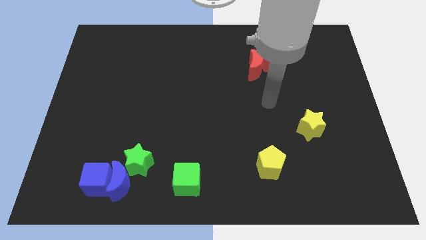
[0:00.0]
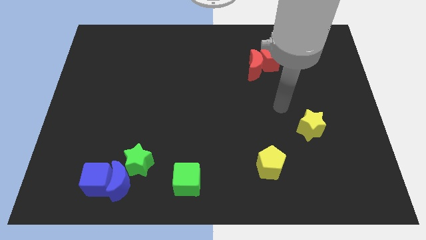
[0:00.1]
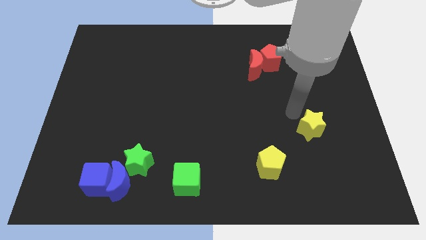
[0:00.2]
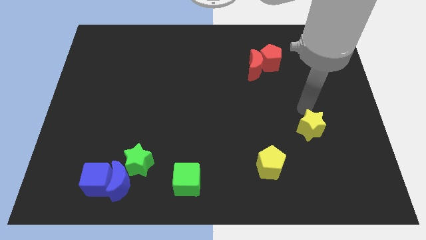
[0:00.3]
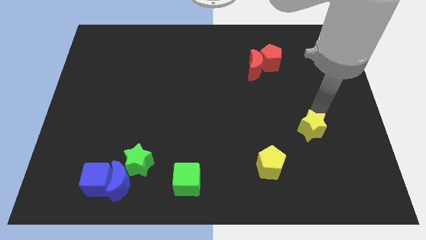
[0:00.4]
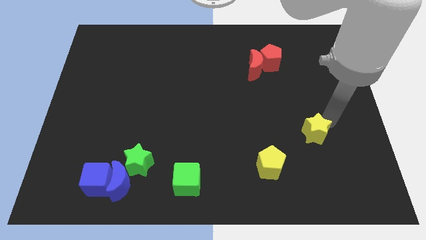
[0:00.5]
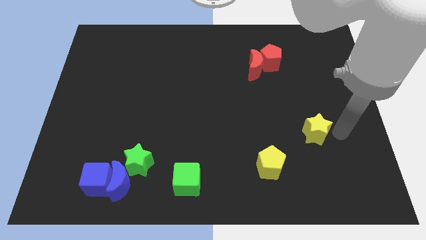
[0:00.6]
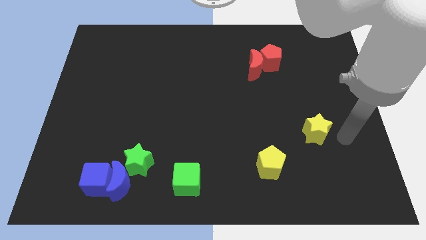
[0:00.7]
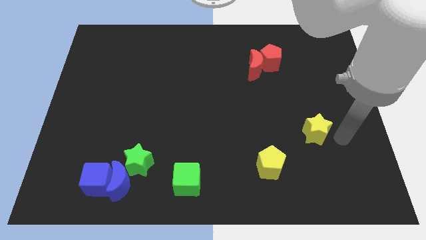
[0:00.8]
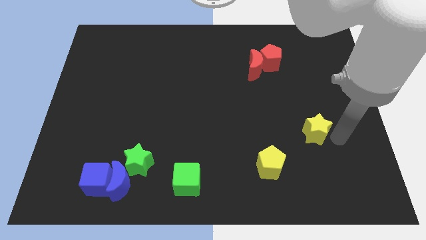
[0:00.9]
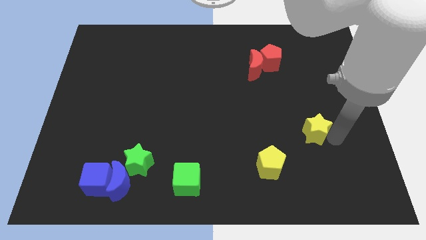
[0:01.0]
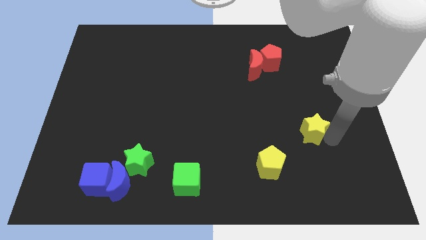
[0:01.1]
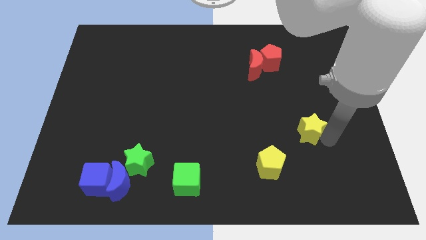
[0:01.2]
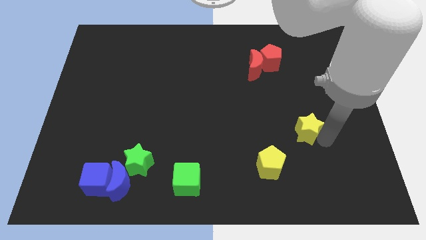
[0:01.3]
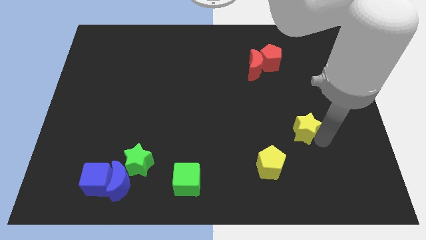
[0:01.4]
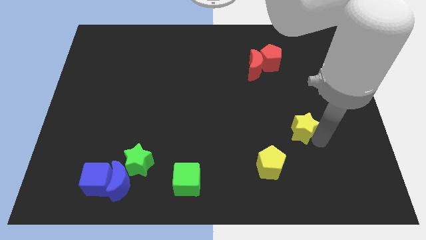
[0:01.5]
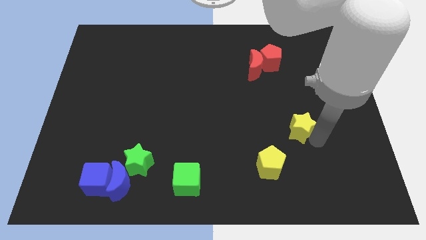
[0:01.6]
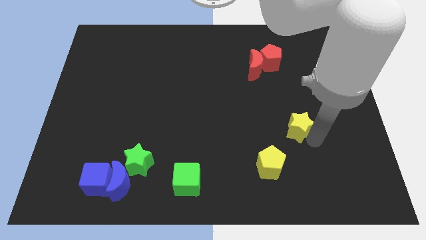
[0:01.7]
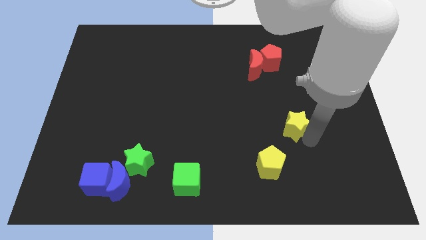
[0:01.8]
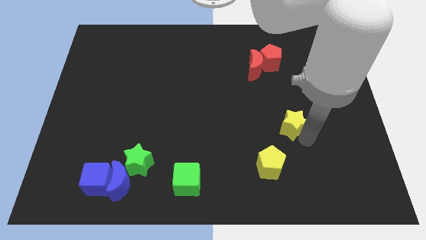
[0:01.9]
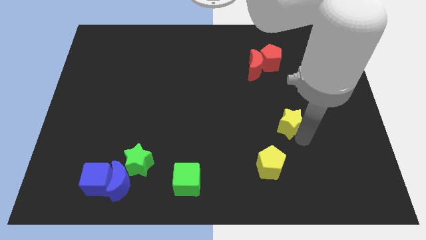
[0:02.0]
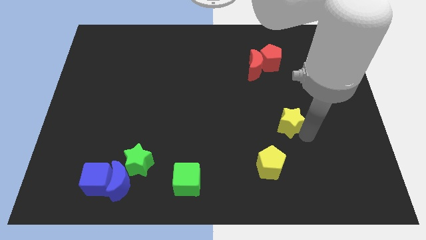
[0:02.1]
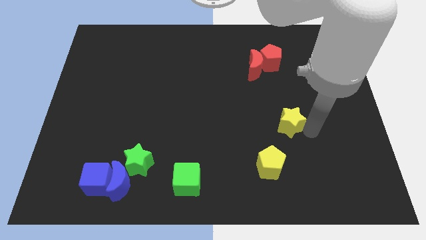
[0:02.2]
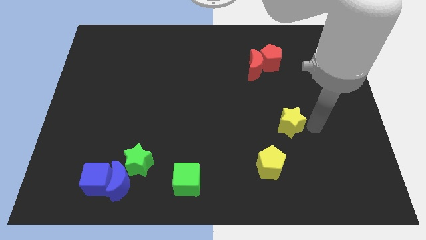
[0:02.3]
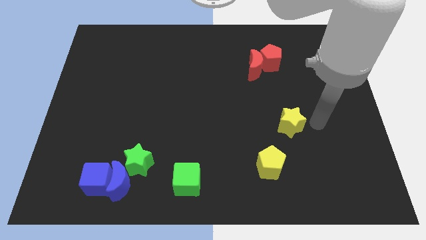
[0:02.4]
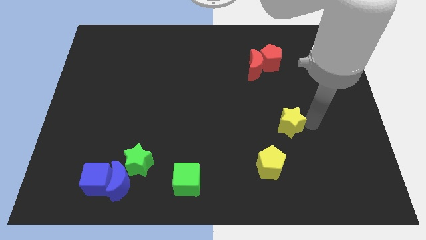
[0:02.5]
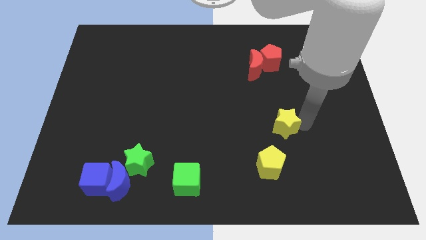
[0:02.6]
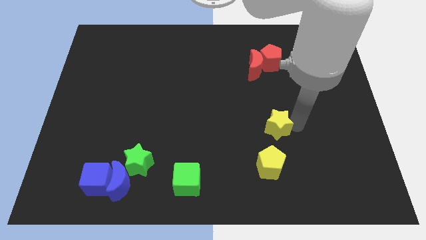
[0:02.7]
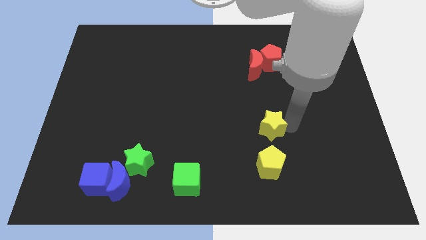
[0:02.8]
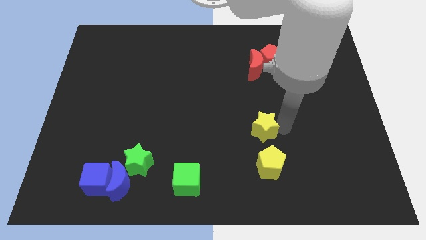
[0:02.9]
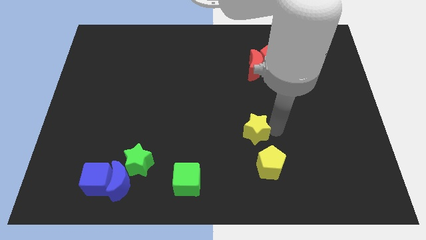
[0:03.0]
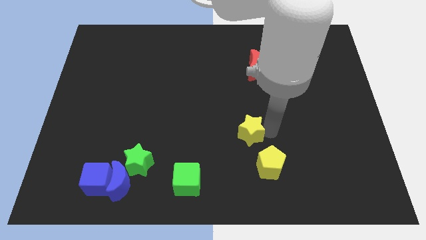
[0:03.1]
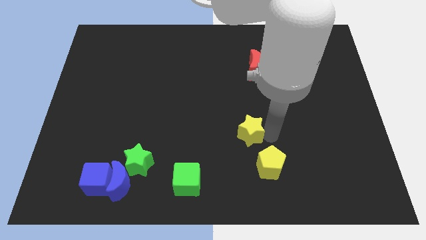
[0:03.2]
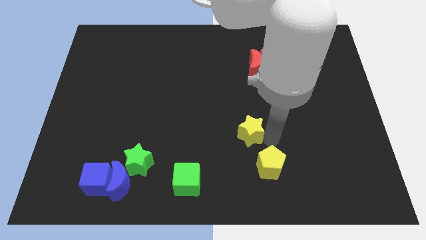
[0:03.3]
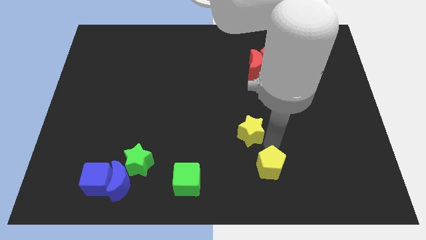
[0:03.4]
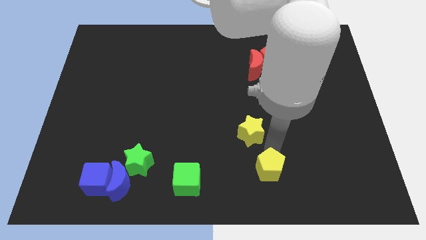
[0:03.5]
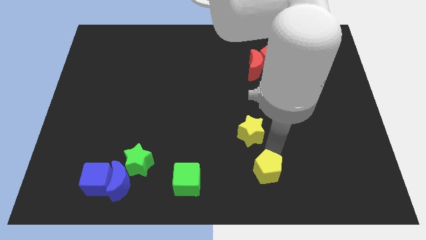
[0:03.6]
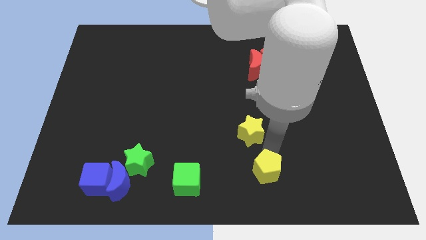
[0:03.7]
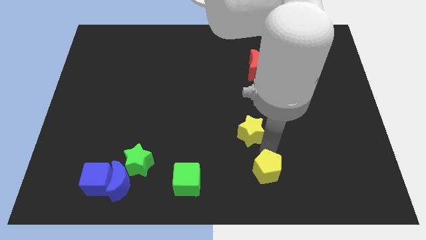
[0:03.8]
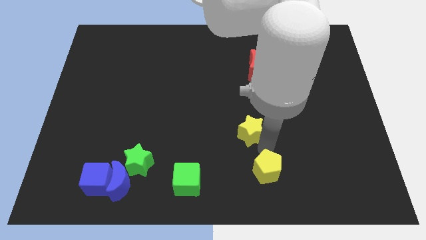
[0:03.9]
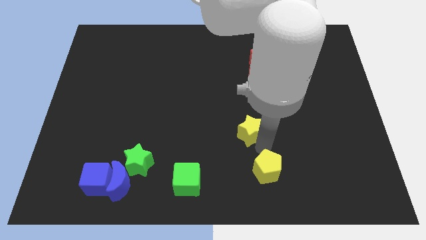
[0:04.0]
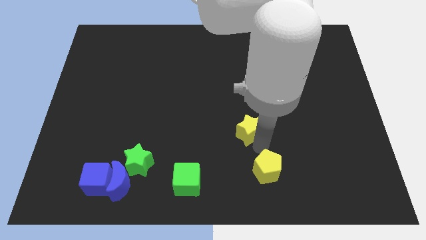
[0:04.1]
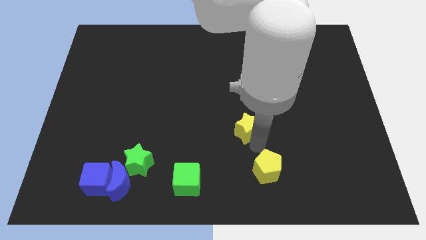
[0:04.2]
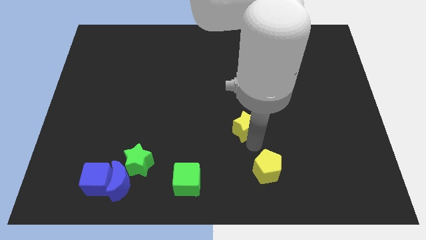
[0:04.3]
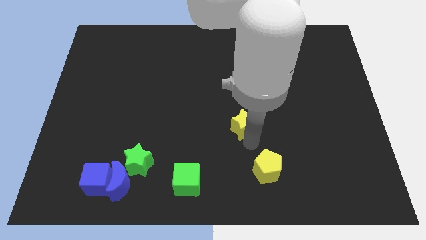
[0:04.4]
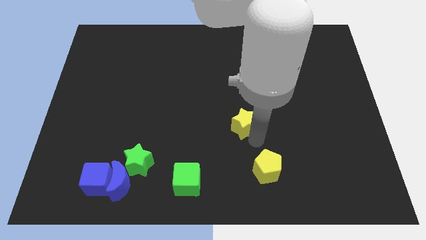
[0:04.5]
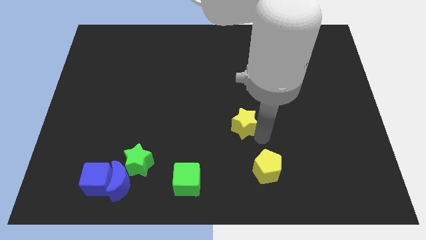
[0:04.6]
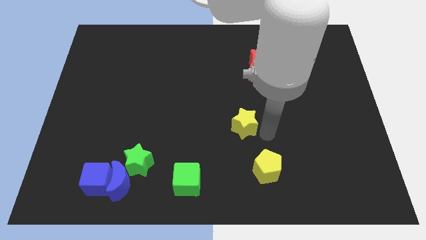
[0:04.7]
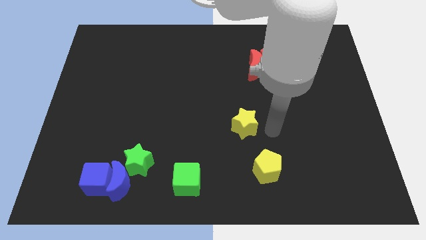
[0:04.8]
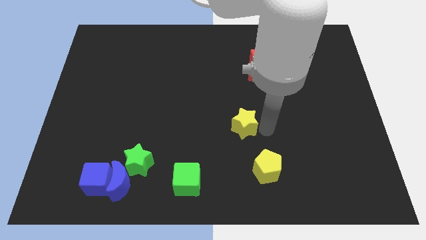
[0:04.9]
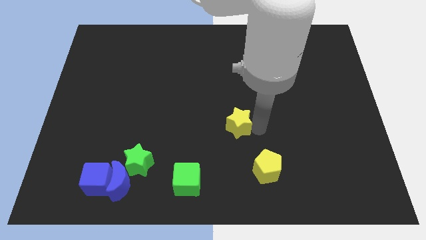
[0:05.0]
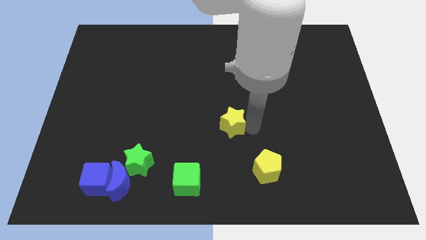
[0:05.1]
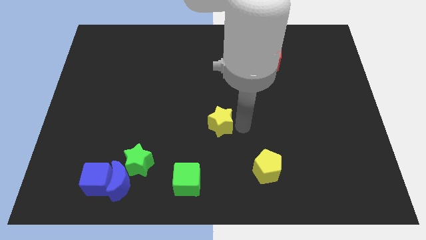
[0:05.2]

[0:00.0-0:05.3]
move the yellow star left

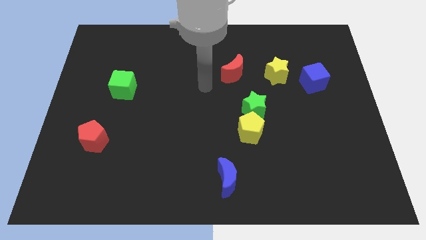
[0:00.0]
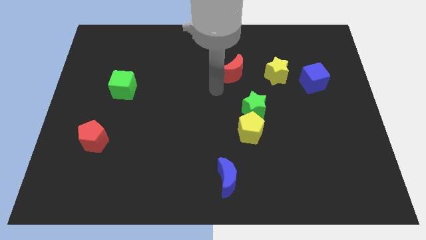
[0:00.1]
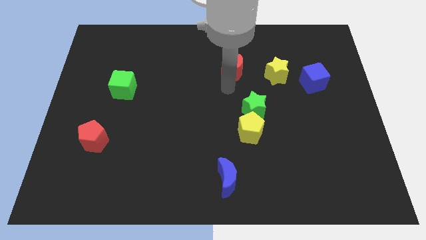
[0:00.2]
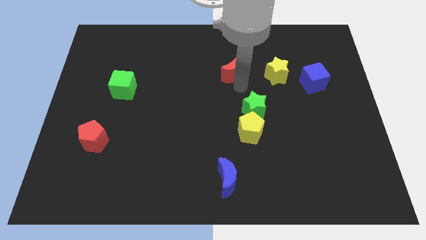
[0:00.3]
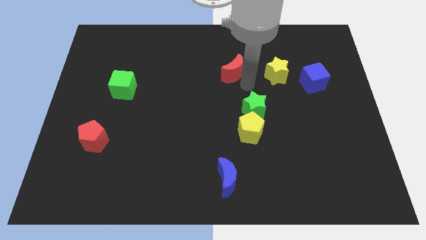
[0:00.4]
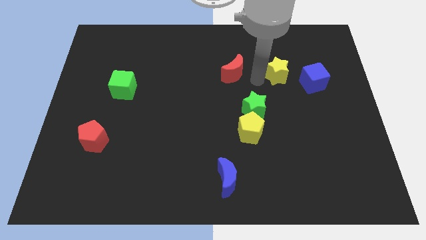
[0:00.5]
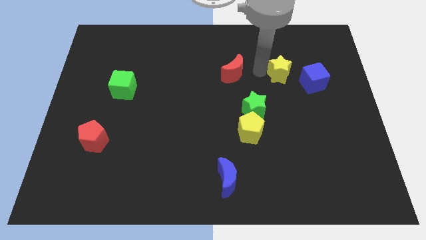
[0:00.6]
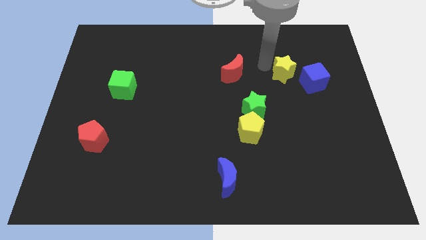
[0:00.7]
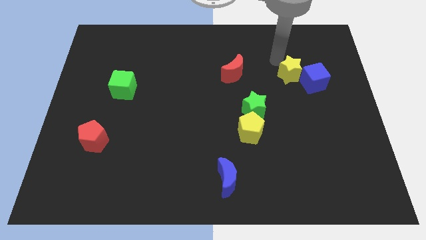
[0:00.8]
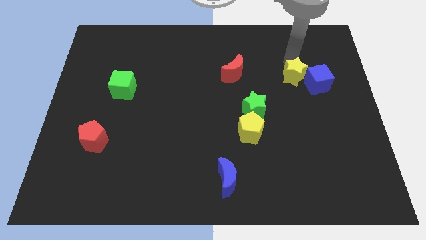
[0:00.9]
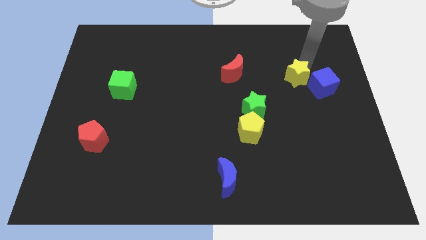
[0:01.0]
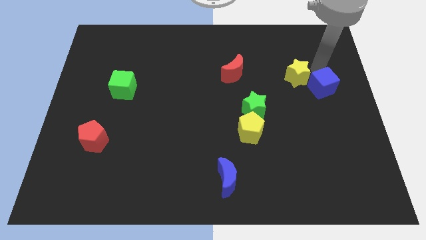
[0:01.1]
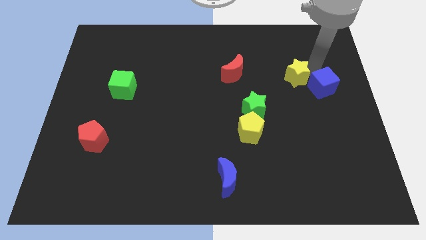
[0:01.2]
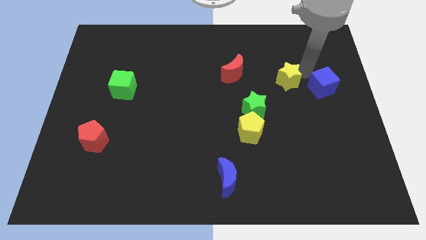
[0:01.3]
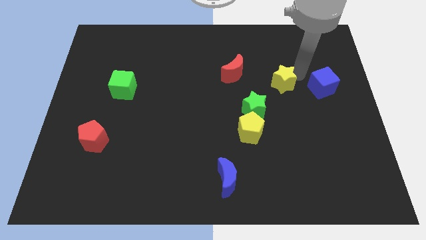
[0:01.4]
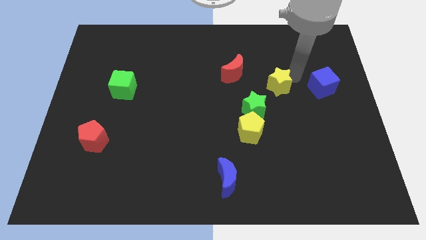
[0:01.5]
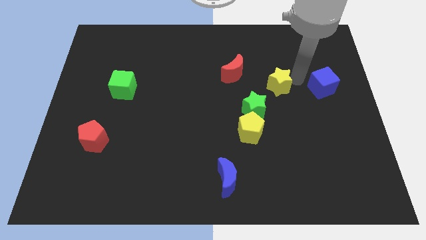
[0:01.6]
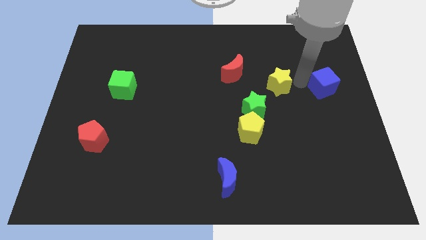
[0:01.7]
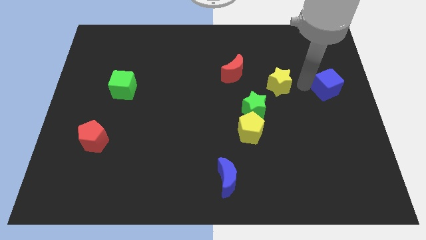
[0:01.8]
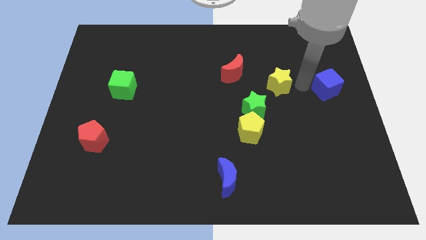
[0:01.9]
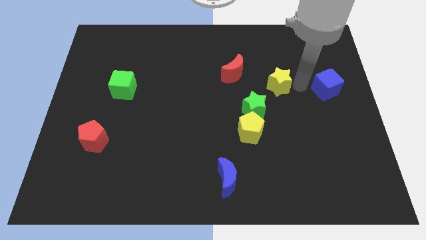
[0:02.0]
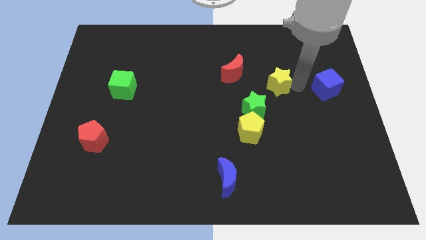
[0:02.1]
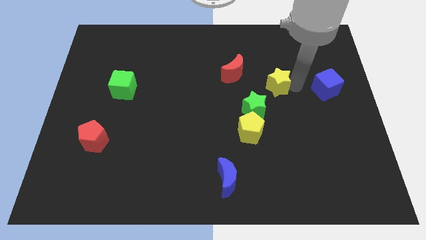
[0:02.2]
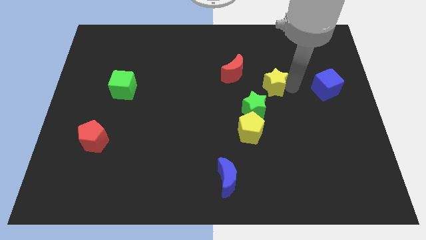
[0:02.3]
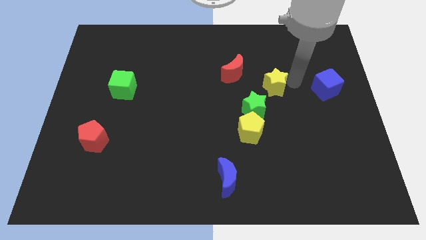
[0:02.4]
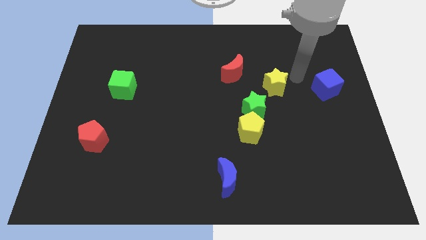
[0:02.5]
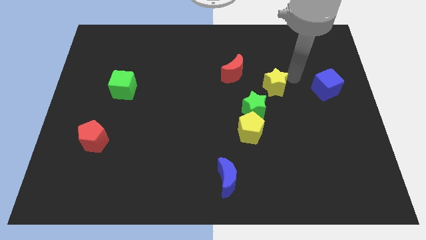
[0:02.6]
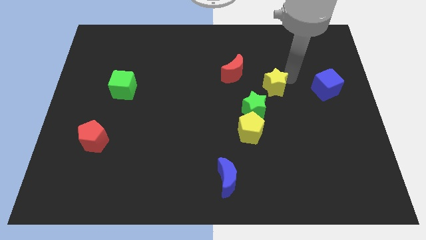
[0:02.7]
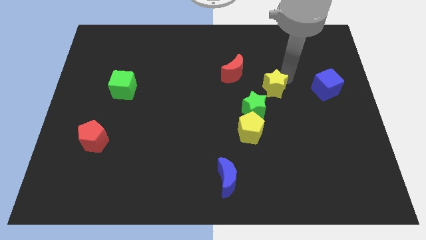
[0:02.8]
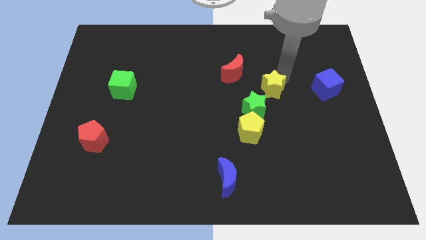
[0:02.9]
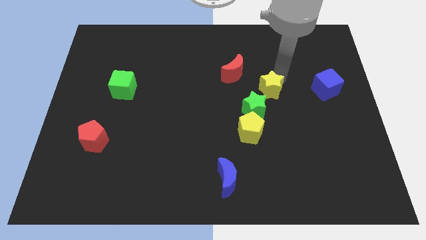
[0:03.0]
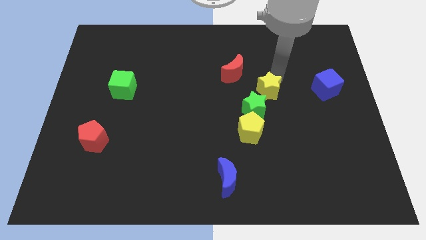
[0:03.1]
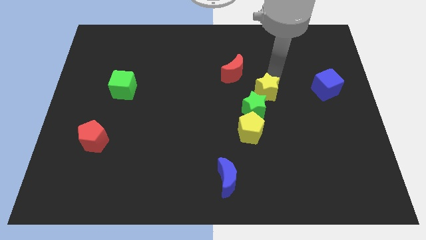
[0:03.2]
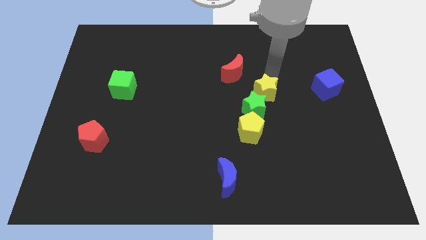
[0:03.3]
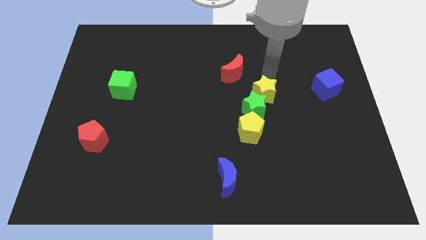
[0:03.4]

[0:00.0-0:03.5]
move the yellow star diagonally down and to the left a bit
